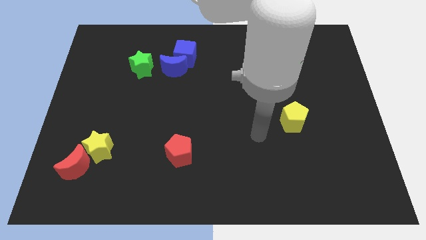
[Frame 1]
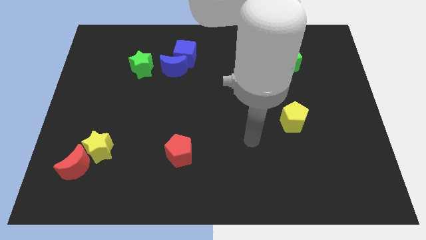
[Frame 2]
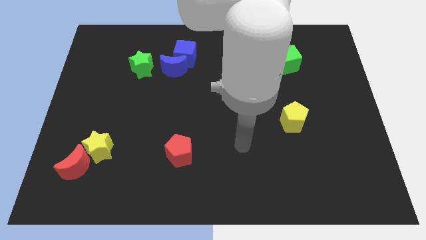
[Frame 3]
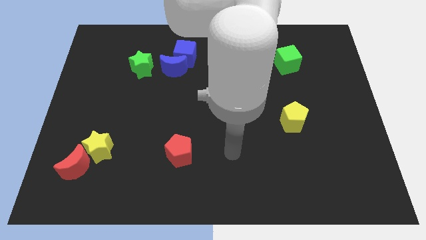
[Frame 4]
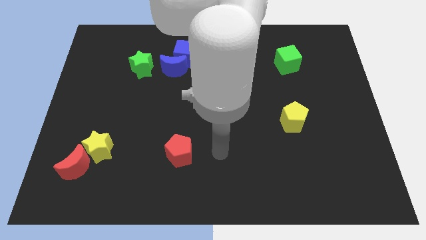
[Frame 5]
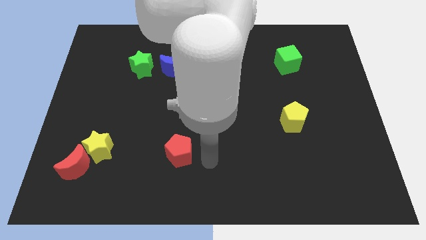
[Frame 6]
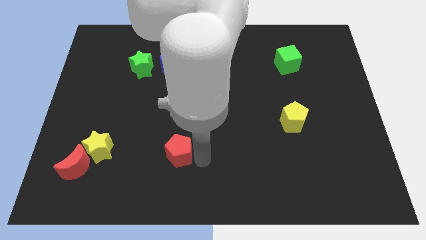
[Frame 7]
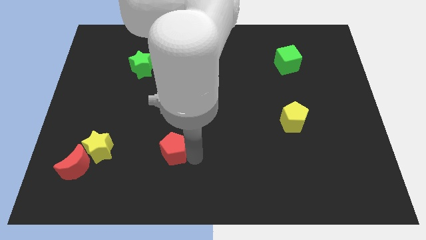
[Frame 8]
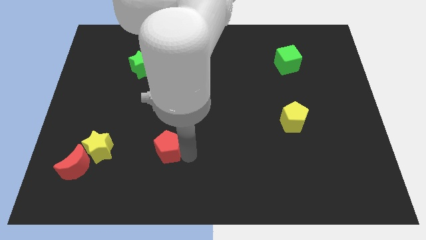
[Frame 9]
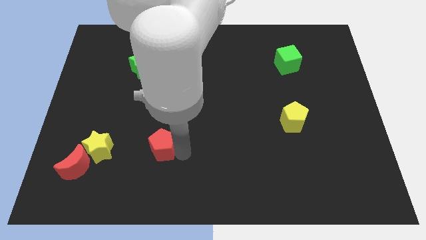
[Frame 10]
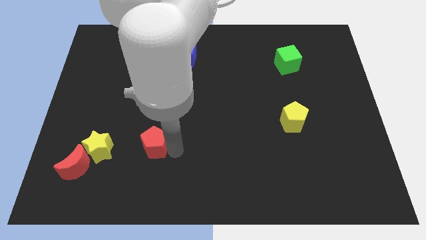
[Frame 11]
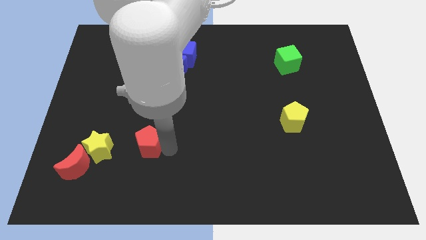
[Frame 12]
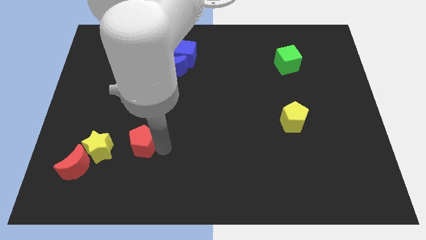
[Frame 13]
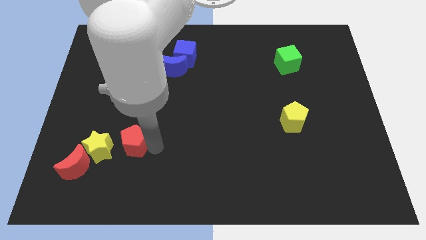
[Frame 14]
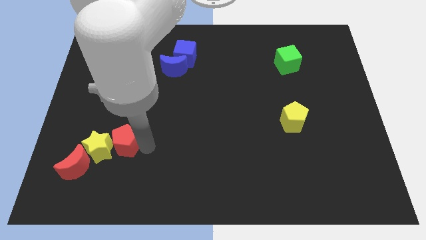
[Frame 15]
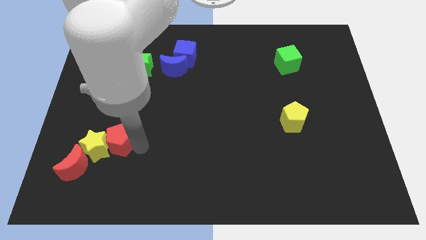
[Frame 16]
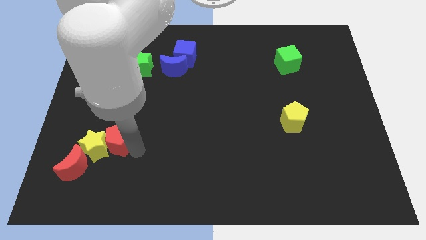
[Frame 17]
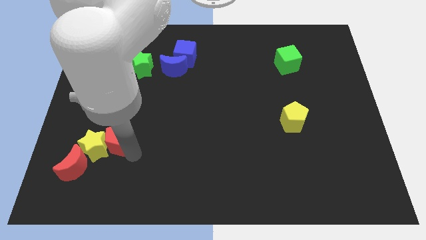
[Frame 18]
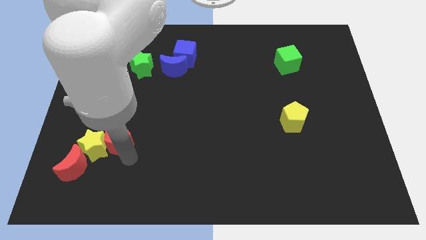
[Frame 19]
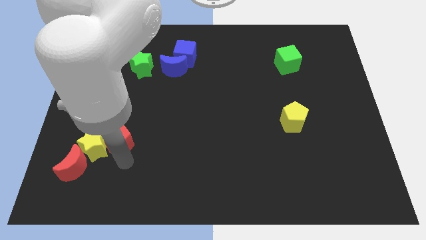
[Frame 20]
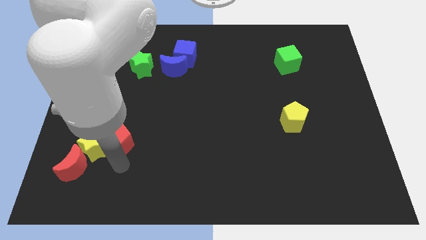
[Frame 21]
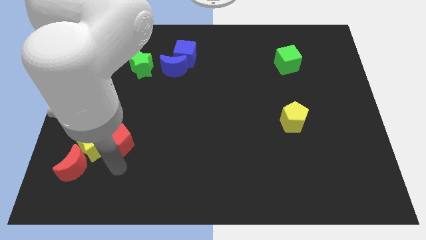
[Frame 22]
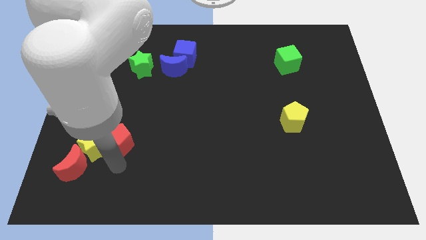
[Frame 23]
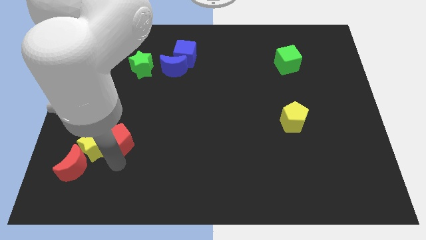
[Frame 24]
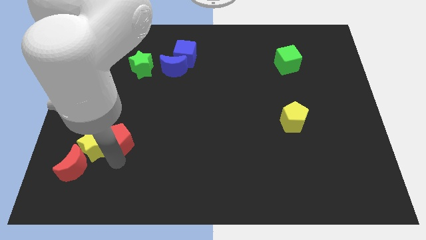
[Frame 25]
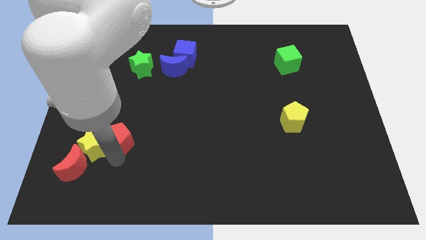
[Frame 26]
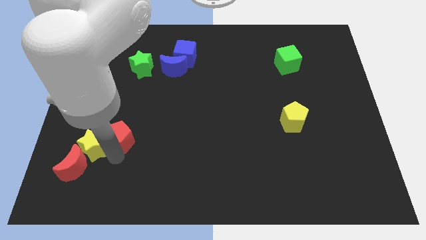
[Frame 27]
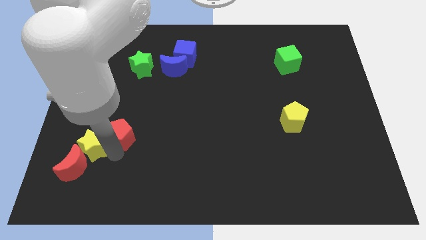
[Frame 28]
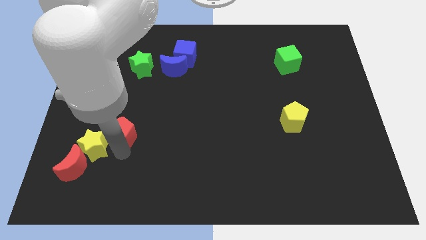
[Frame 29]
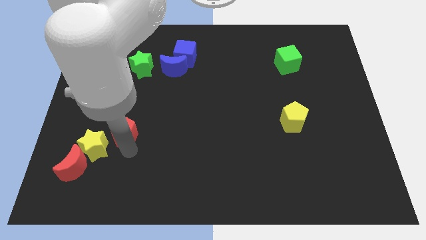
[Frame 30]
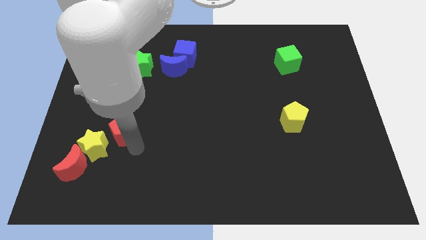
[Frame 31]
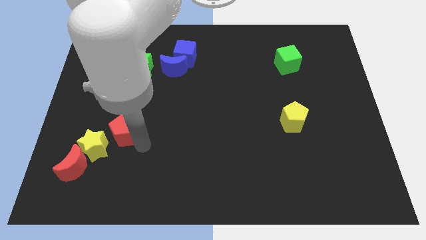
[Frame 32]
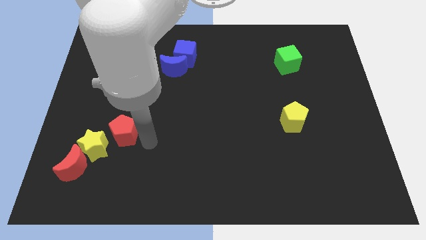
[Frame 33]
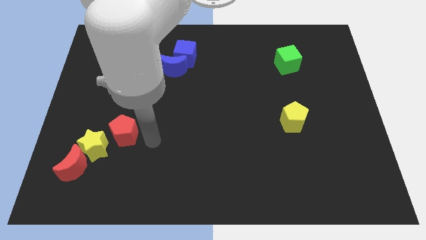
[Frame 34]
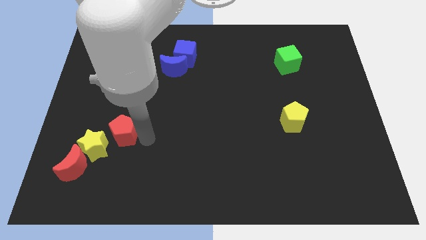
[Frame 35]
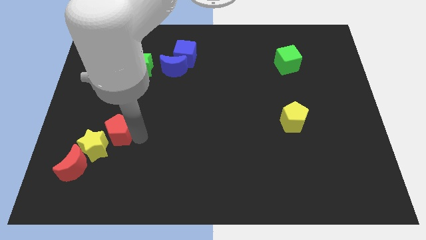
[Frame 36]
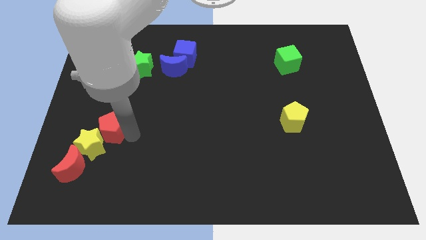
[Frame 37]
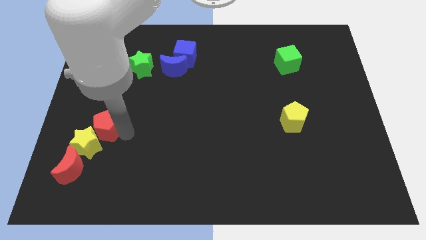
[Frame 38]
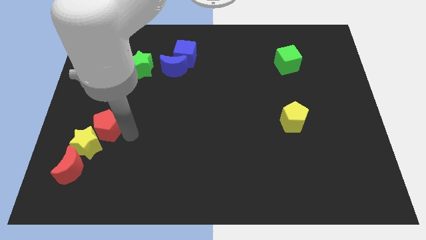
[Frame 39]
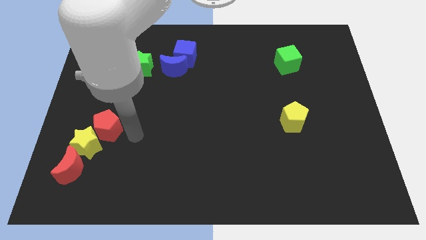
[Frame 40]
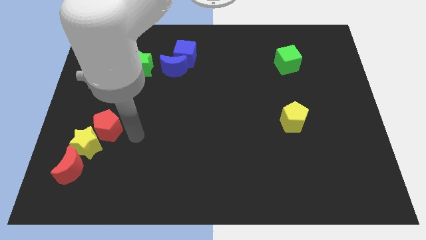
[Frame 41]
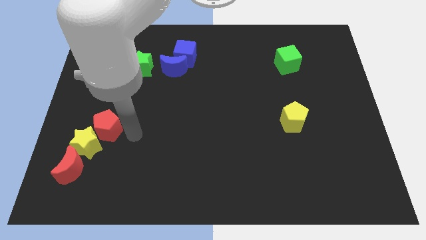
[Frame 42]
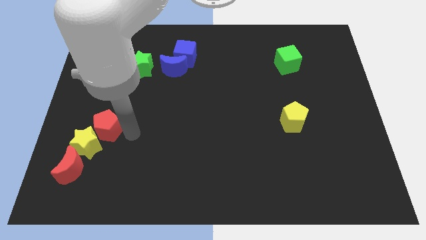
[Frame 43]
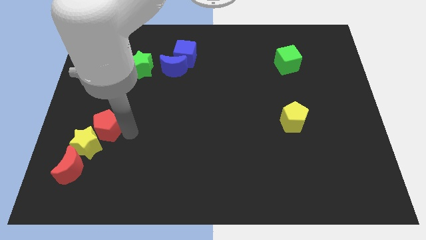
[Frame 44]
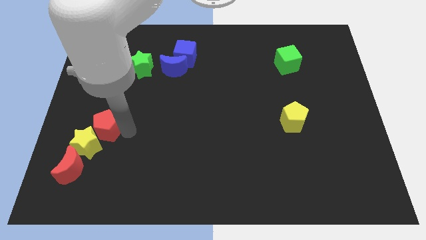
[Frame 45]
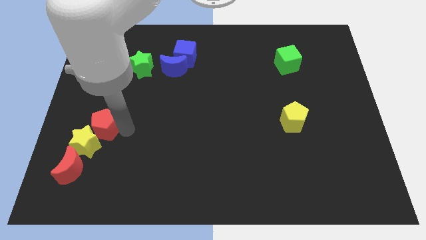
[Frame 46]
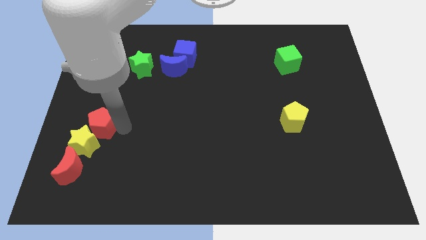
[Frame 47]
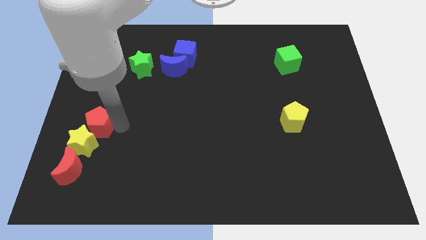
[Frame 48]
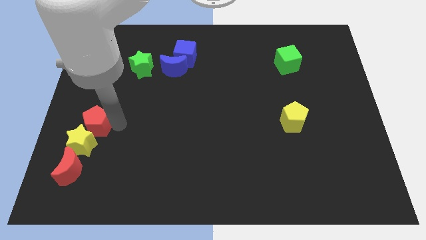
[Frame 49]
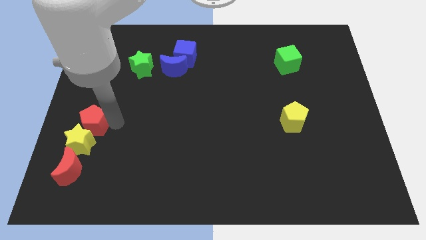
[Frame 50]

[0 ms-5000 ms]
move the red pentagon to the left side of the board

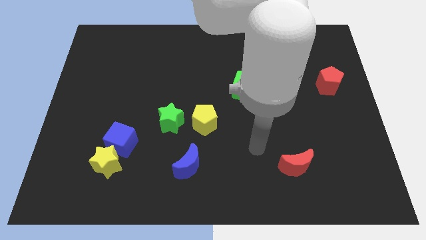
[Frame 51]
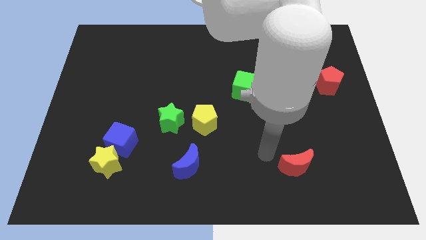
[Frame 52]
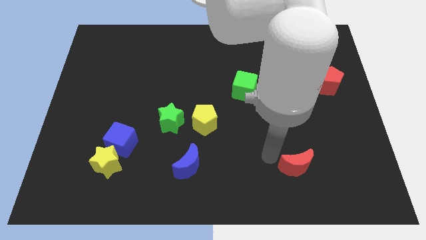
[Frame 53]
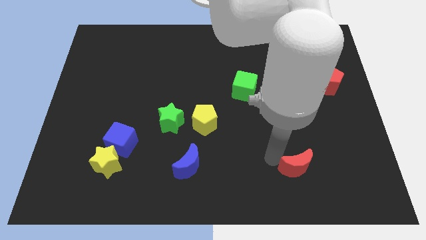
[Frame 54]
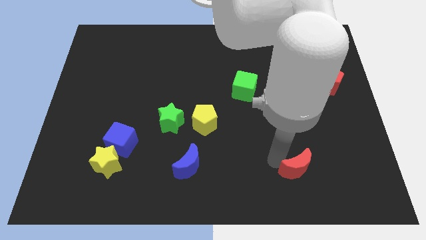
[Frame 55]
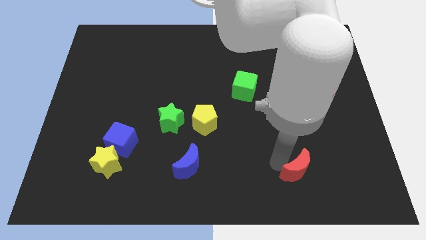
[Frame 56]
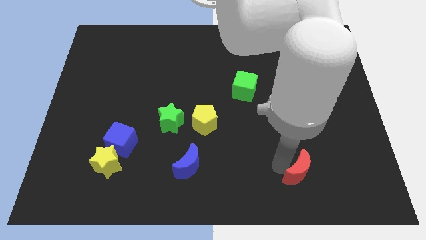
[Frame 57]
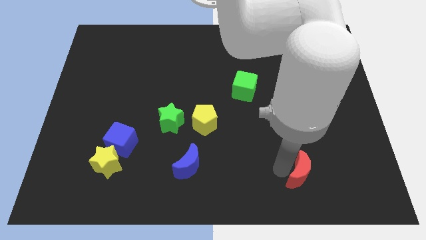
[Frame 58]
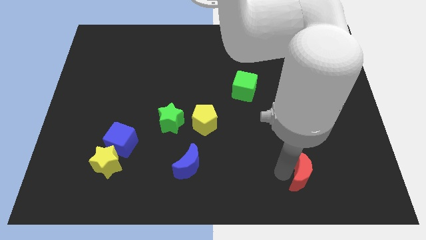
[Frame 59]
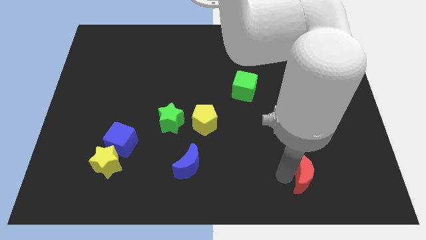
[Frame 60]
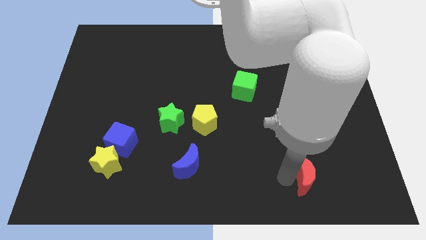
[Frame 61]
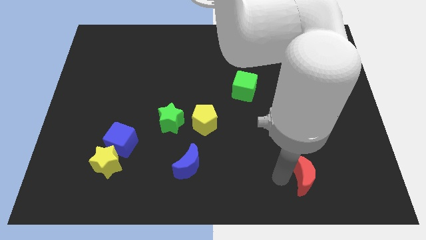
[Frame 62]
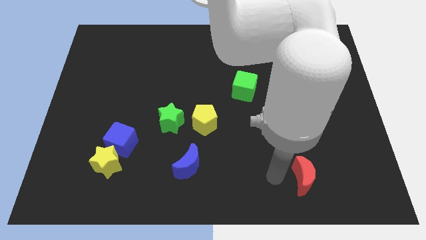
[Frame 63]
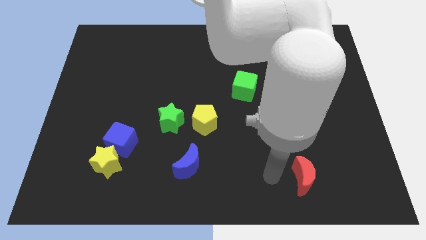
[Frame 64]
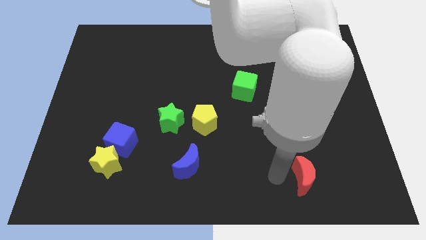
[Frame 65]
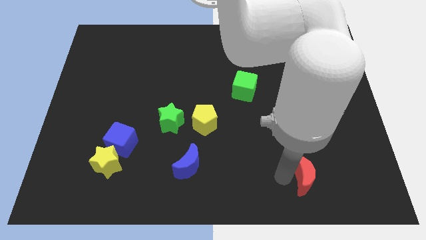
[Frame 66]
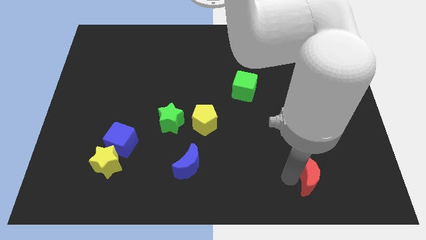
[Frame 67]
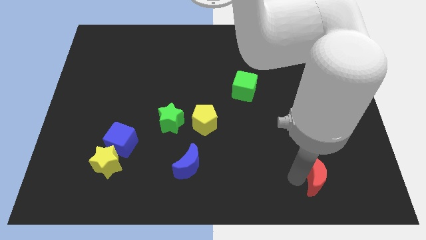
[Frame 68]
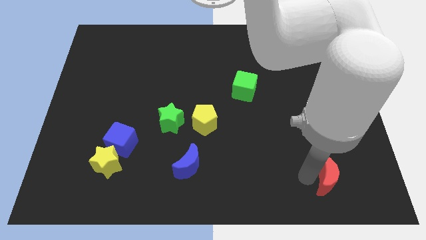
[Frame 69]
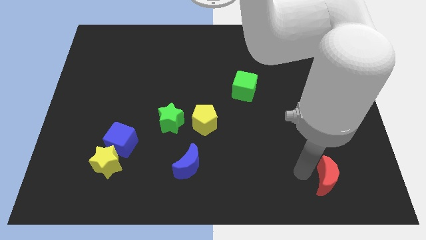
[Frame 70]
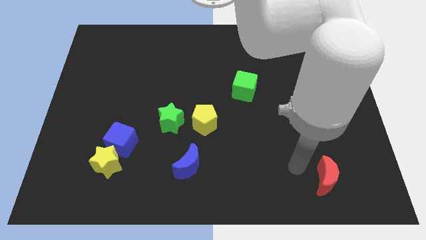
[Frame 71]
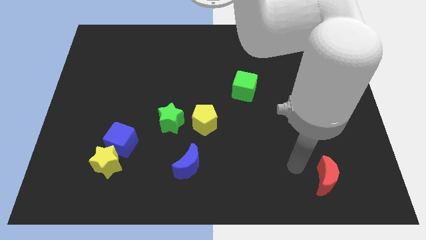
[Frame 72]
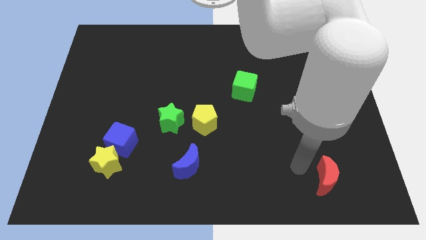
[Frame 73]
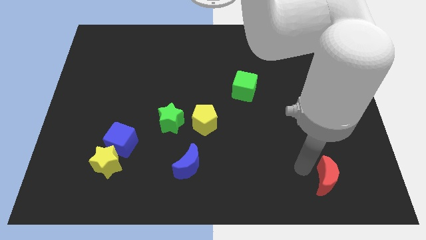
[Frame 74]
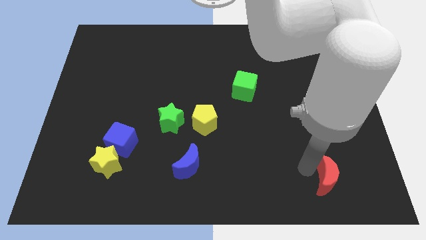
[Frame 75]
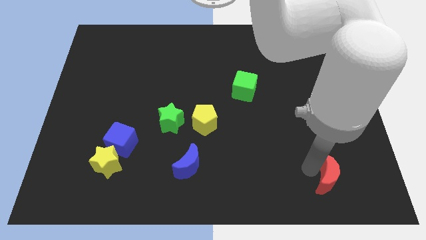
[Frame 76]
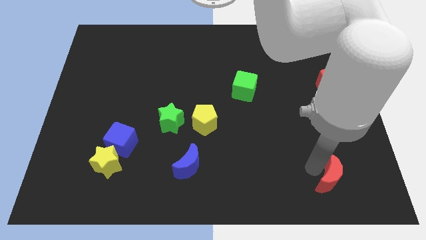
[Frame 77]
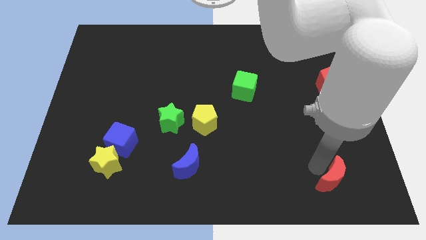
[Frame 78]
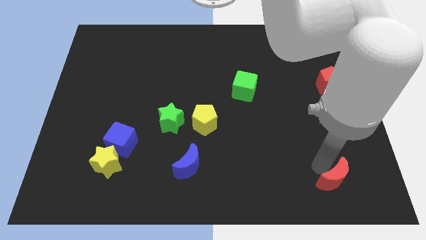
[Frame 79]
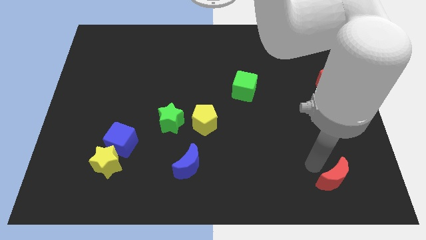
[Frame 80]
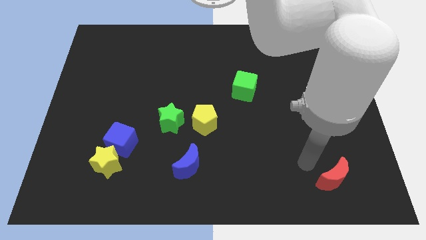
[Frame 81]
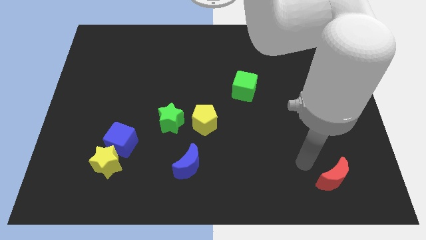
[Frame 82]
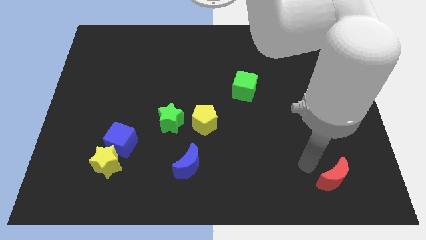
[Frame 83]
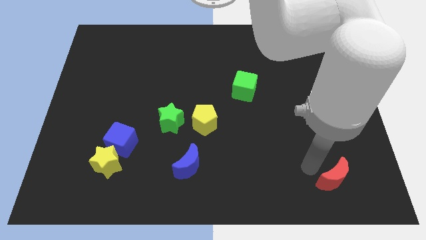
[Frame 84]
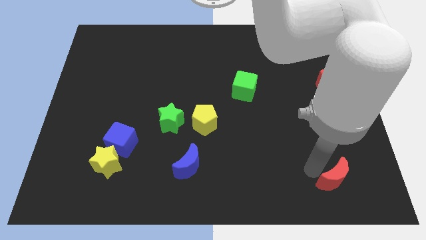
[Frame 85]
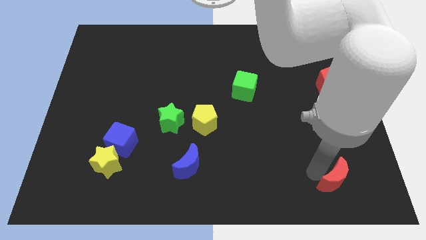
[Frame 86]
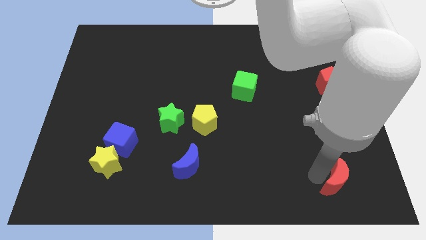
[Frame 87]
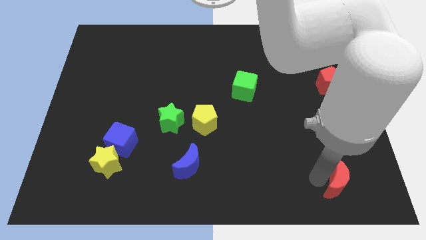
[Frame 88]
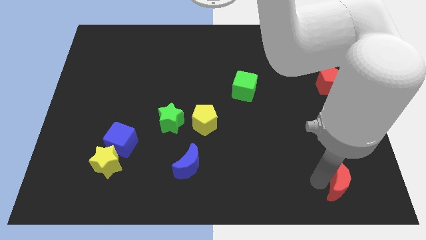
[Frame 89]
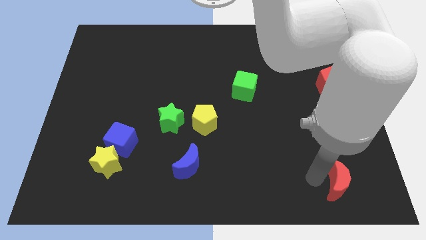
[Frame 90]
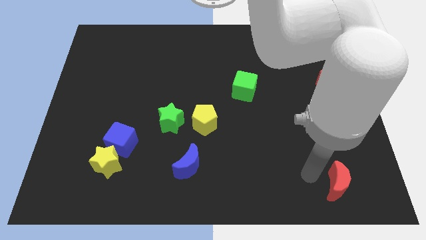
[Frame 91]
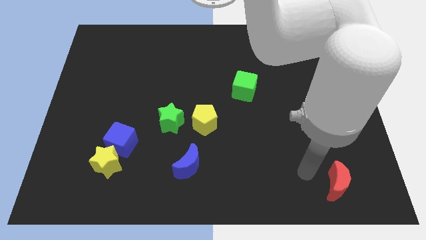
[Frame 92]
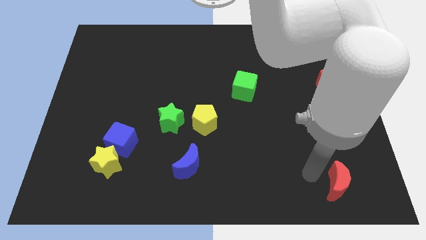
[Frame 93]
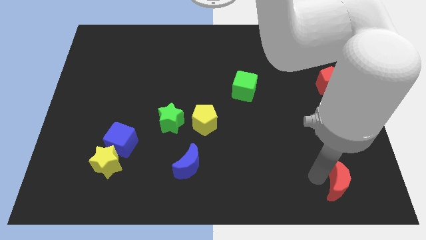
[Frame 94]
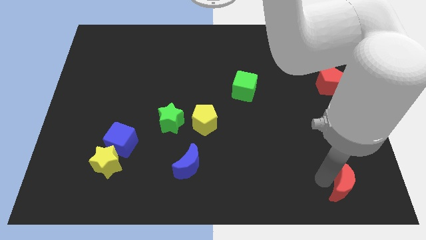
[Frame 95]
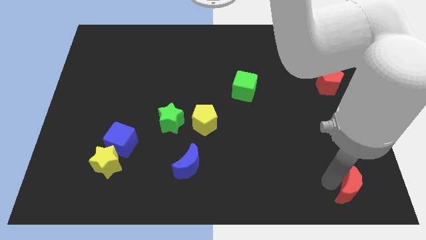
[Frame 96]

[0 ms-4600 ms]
push the red moon to the bottom right of the board
